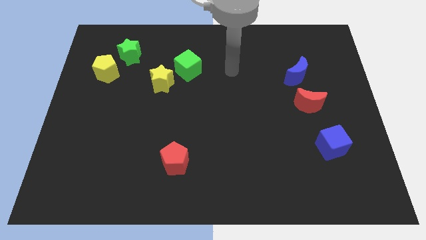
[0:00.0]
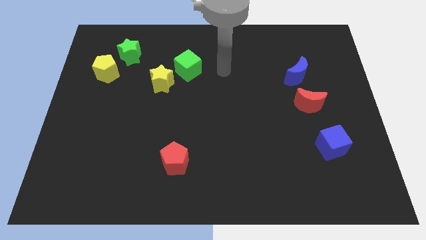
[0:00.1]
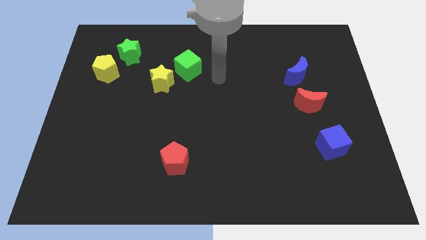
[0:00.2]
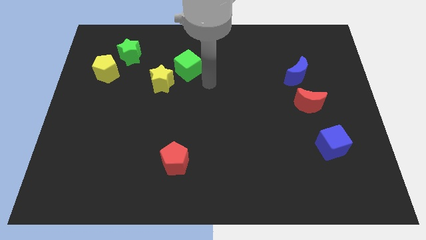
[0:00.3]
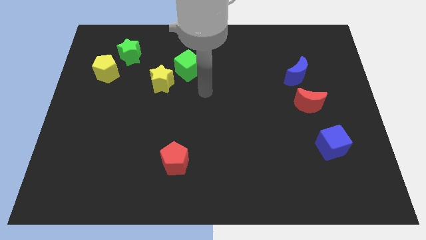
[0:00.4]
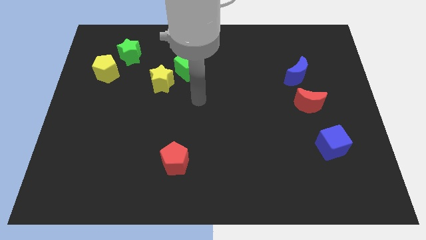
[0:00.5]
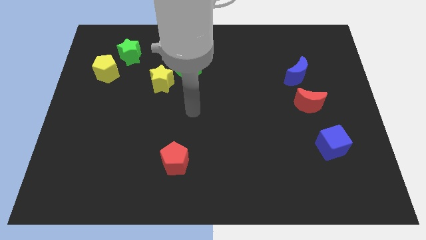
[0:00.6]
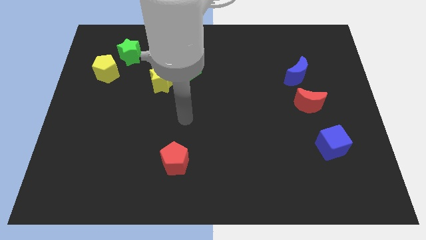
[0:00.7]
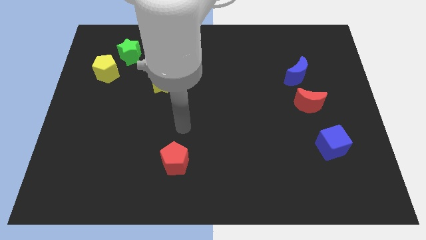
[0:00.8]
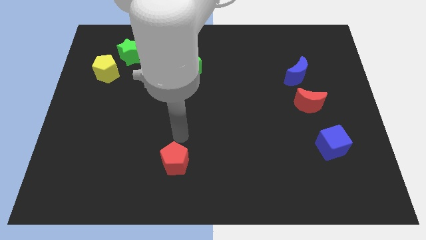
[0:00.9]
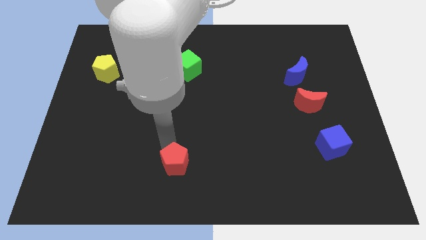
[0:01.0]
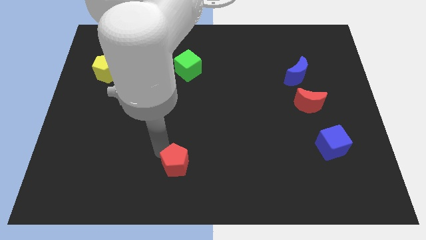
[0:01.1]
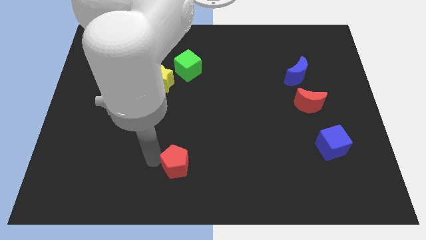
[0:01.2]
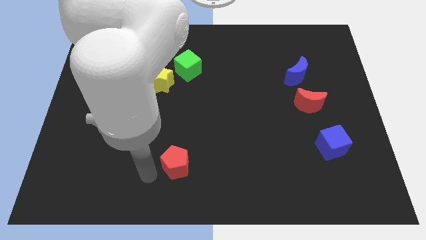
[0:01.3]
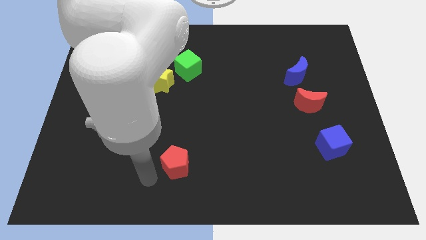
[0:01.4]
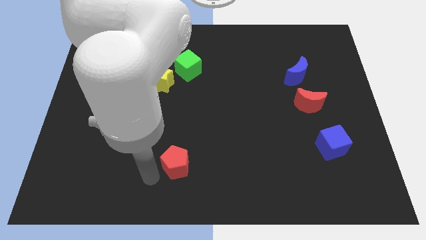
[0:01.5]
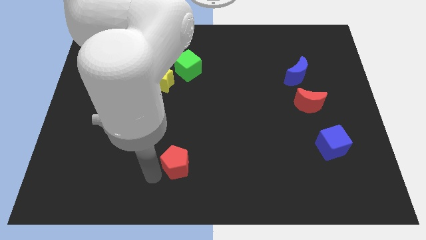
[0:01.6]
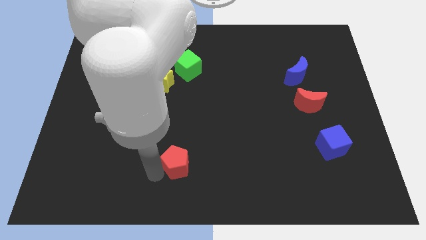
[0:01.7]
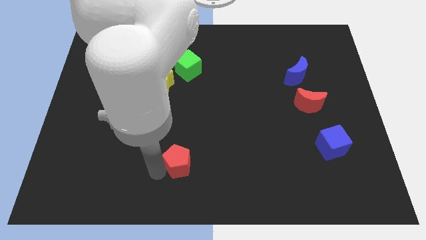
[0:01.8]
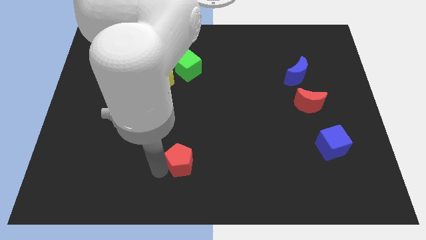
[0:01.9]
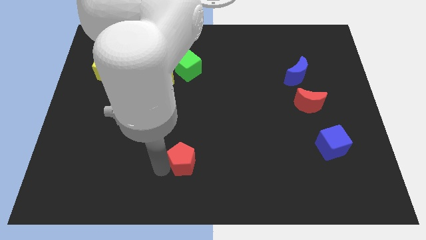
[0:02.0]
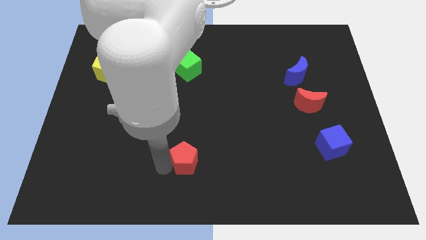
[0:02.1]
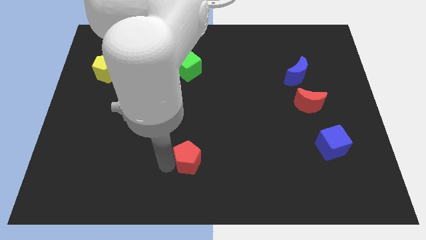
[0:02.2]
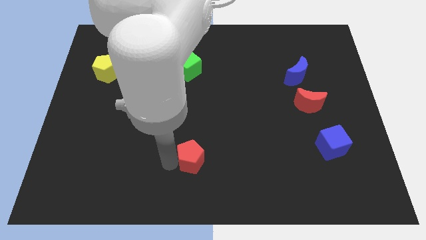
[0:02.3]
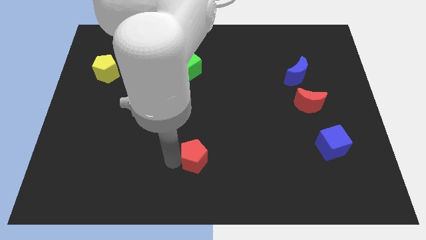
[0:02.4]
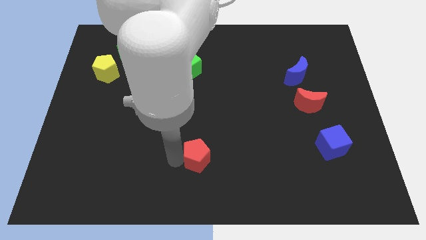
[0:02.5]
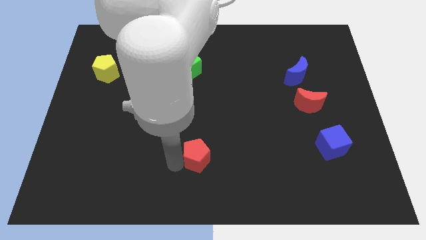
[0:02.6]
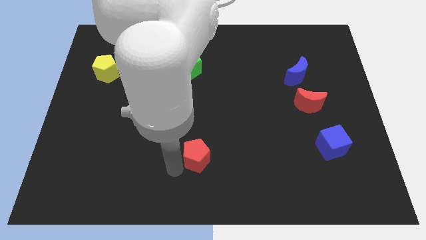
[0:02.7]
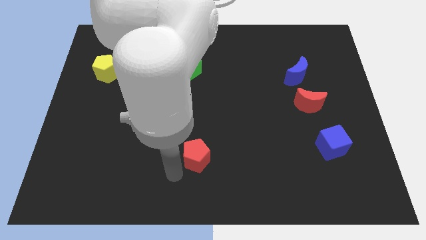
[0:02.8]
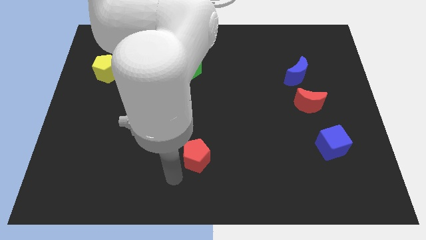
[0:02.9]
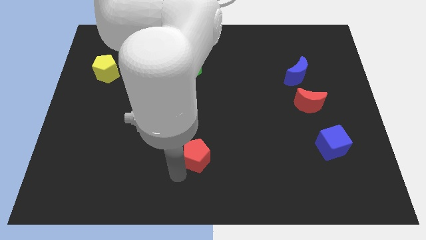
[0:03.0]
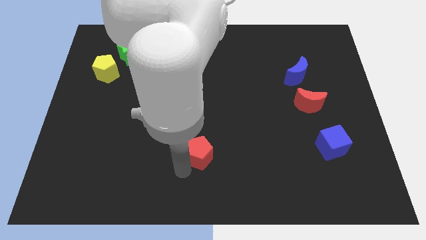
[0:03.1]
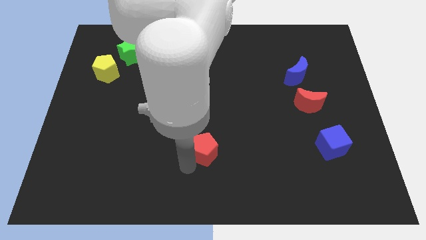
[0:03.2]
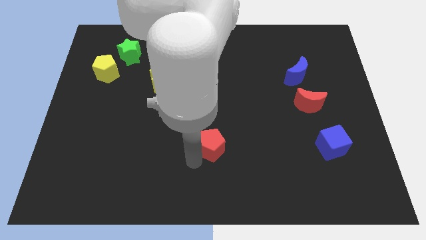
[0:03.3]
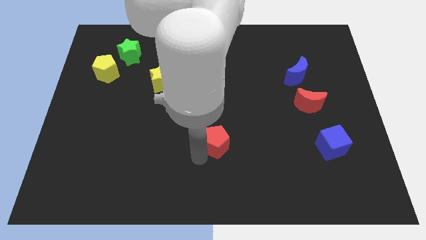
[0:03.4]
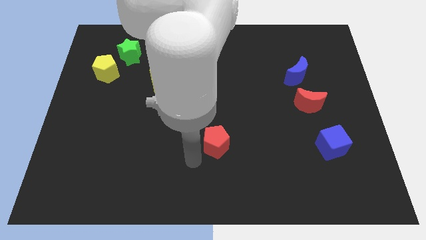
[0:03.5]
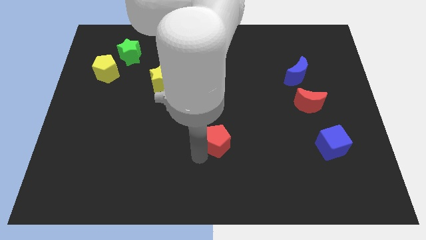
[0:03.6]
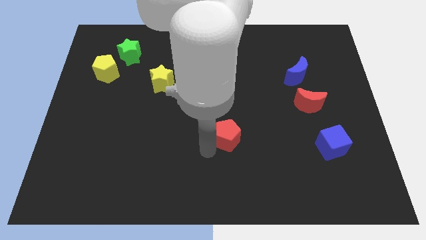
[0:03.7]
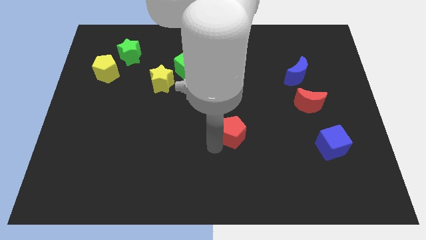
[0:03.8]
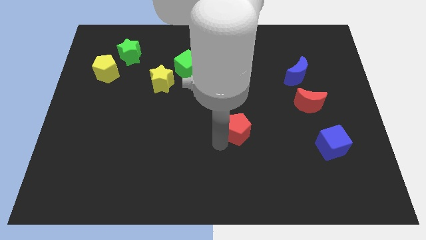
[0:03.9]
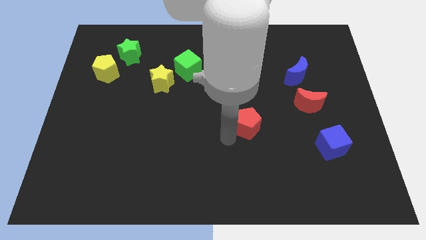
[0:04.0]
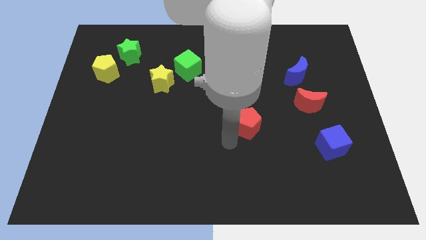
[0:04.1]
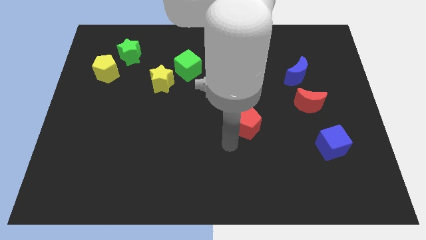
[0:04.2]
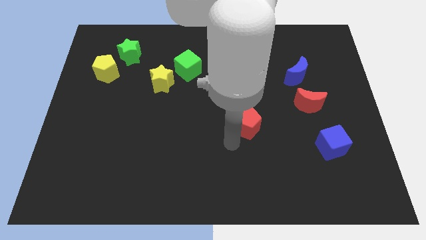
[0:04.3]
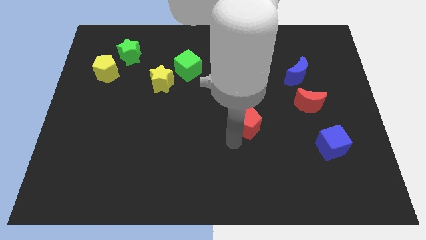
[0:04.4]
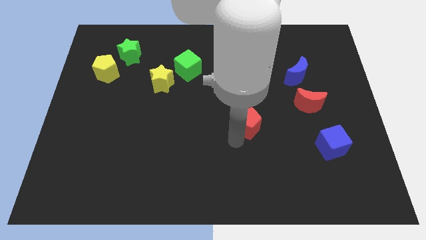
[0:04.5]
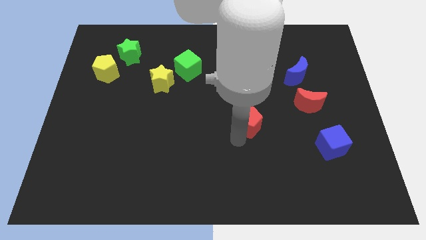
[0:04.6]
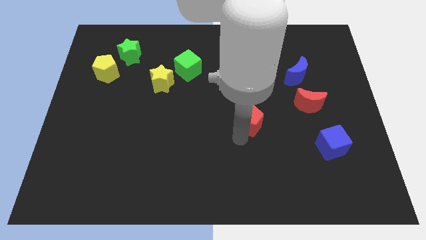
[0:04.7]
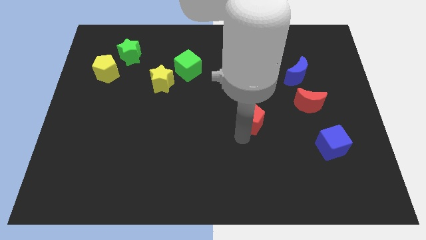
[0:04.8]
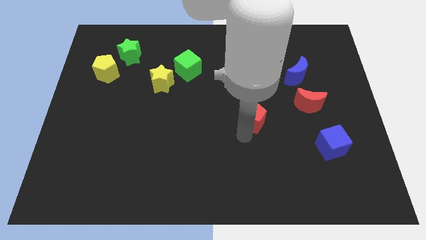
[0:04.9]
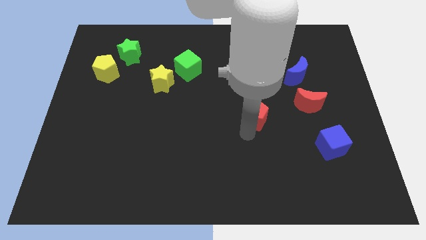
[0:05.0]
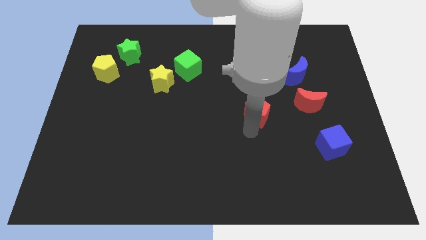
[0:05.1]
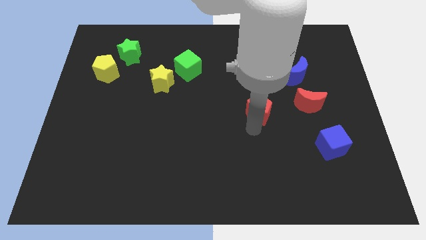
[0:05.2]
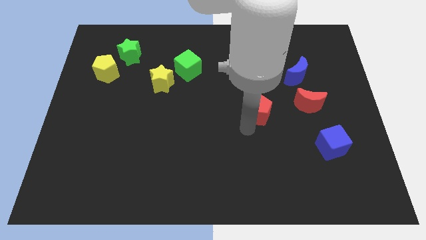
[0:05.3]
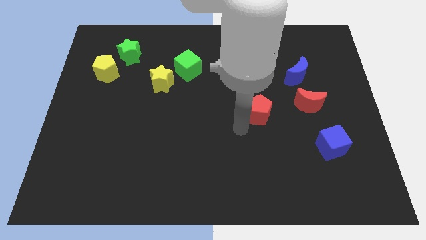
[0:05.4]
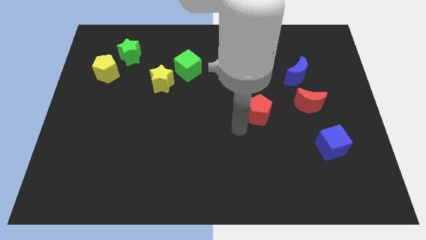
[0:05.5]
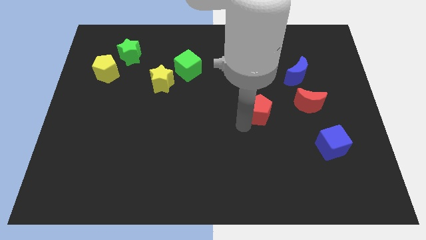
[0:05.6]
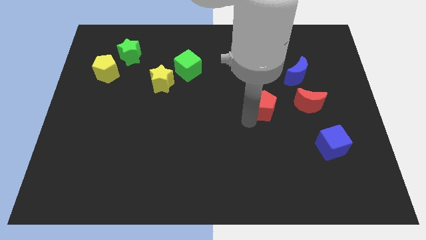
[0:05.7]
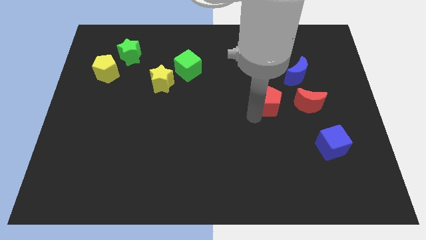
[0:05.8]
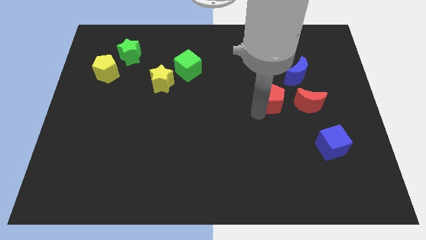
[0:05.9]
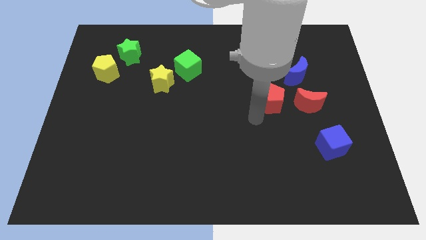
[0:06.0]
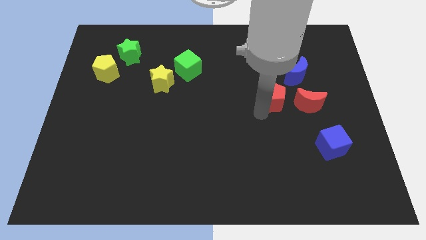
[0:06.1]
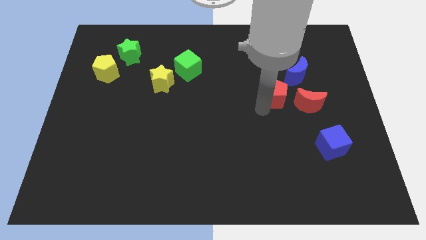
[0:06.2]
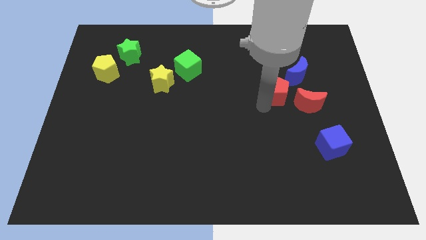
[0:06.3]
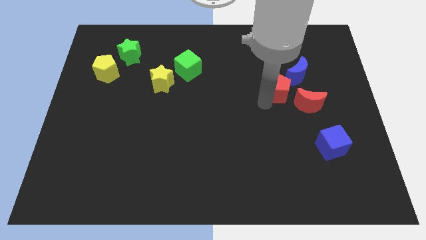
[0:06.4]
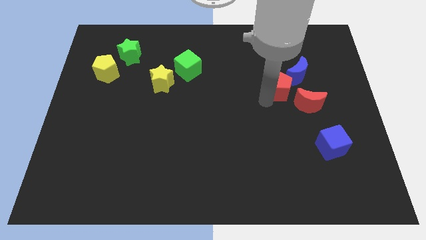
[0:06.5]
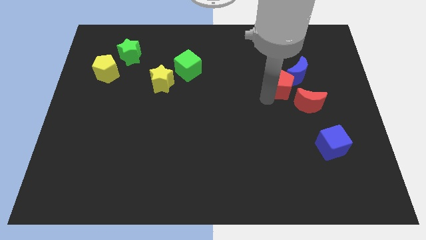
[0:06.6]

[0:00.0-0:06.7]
put the red pentagon close to the blue moon

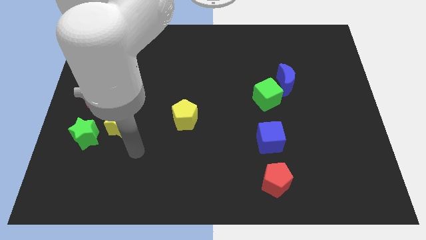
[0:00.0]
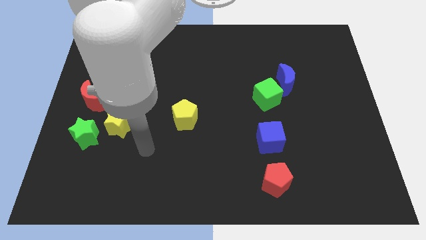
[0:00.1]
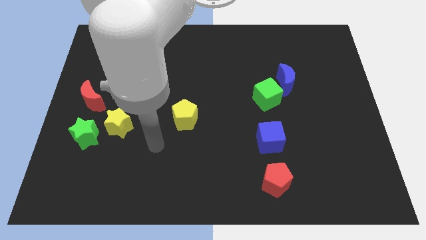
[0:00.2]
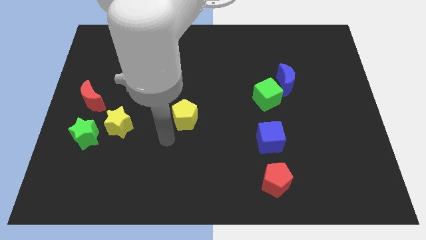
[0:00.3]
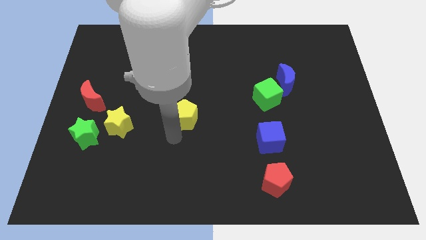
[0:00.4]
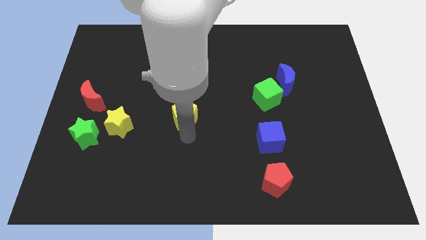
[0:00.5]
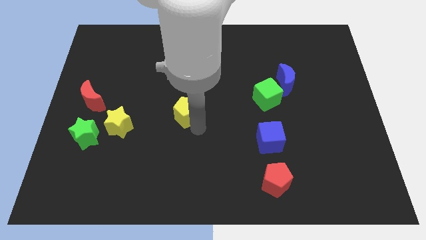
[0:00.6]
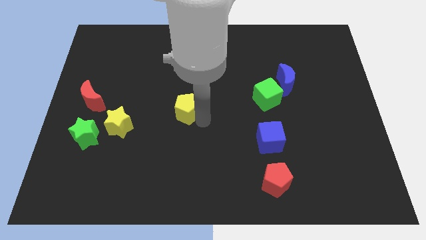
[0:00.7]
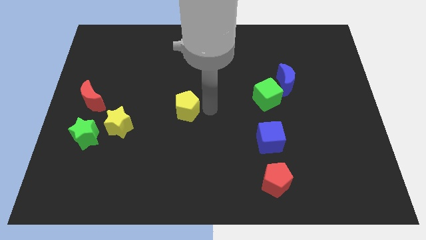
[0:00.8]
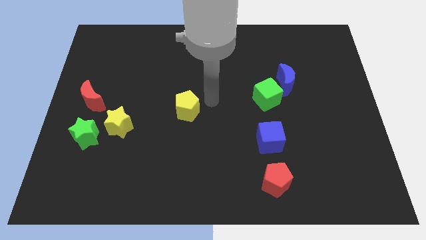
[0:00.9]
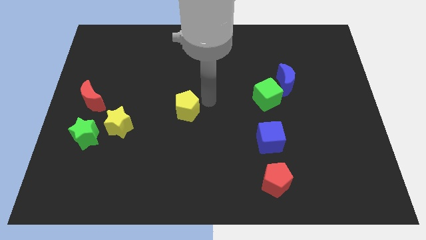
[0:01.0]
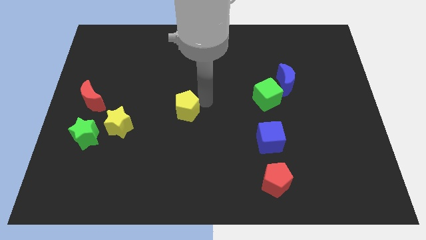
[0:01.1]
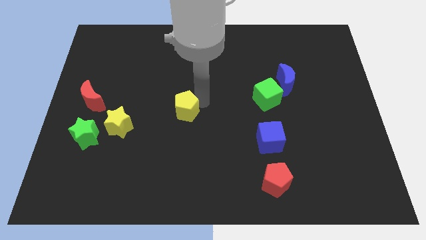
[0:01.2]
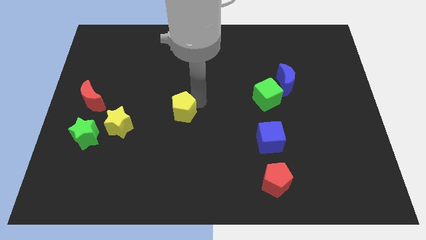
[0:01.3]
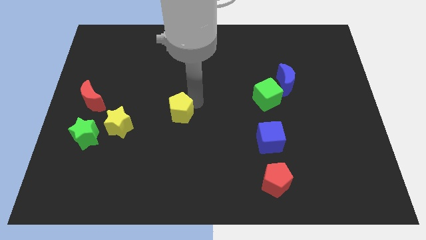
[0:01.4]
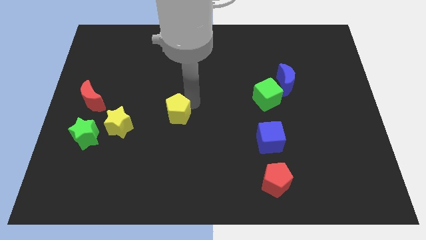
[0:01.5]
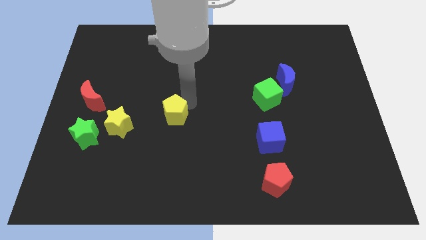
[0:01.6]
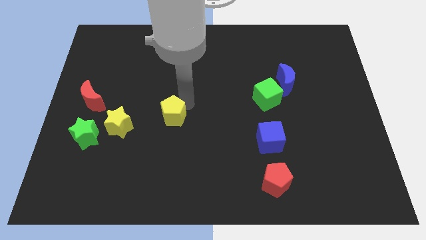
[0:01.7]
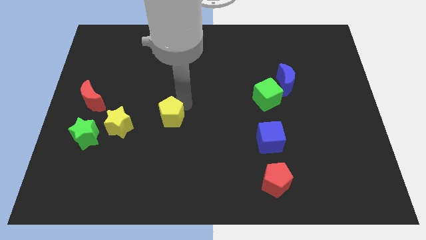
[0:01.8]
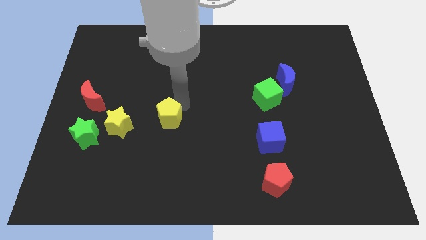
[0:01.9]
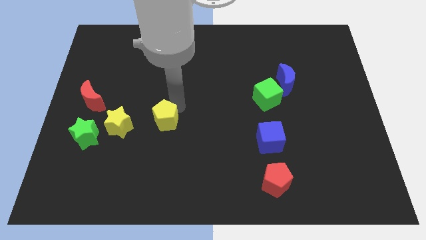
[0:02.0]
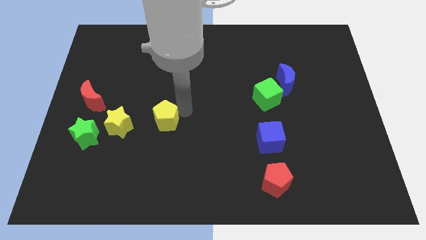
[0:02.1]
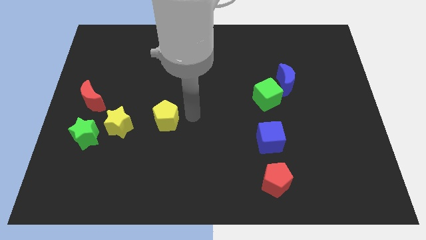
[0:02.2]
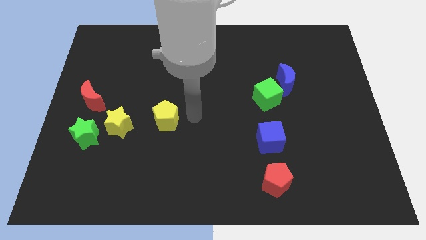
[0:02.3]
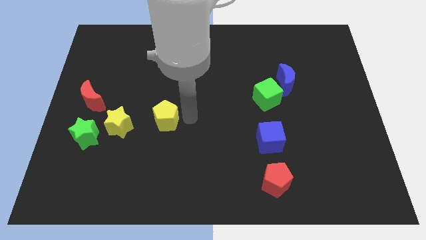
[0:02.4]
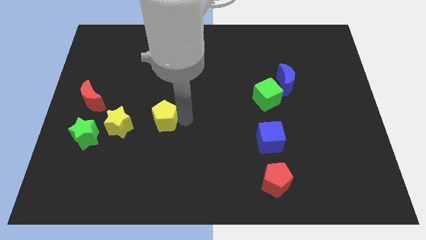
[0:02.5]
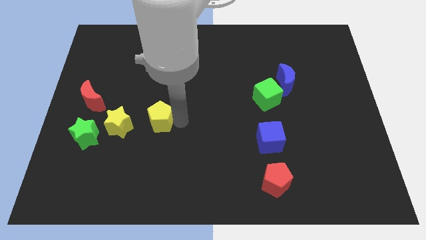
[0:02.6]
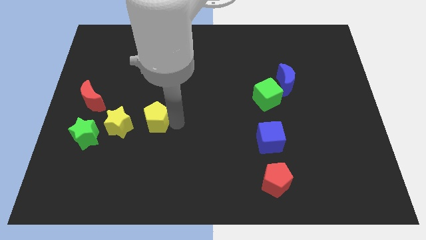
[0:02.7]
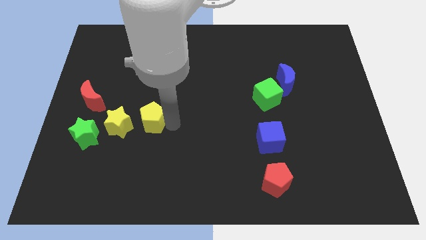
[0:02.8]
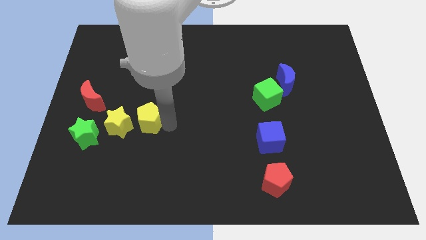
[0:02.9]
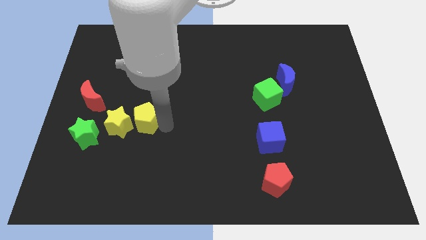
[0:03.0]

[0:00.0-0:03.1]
push the yellow pentagon to the yellow star
